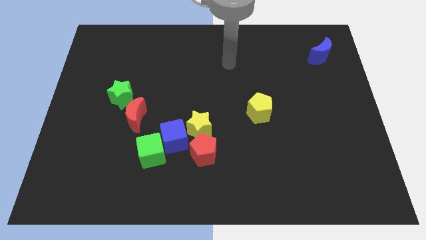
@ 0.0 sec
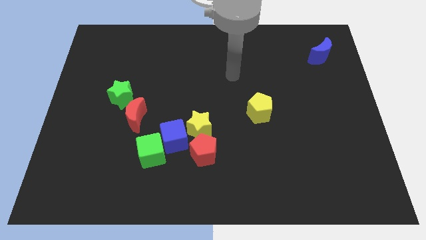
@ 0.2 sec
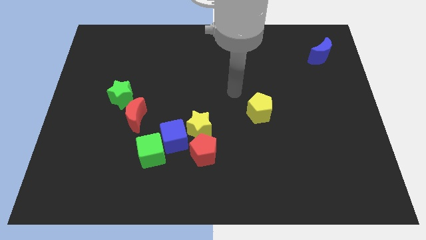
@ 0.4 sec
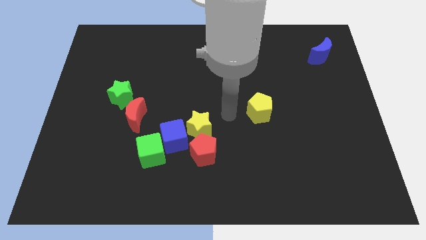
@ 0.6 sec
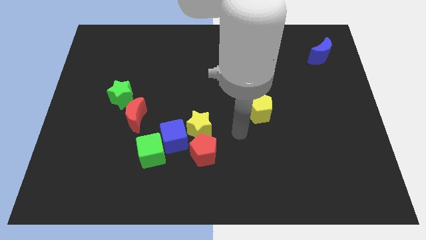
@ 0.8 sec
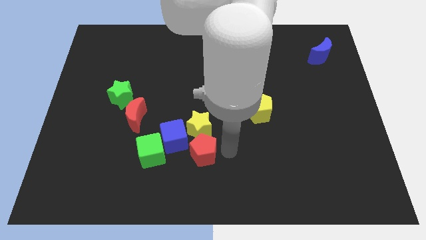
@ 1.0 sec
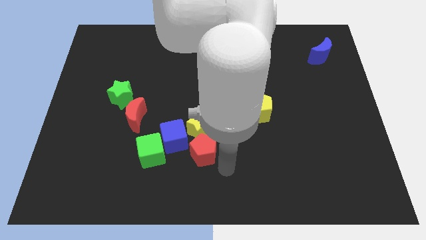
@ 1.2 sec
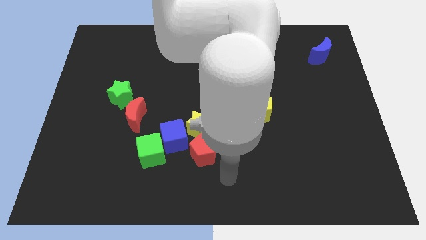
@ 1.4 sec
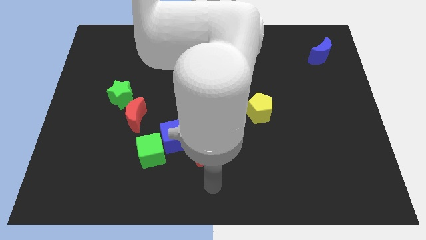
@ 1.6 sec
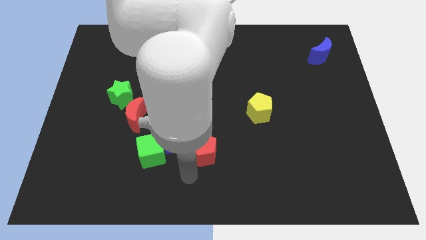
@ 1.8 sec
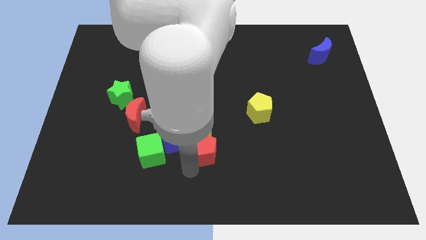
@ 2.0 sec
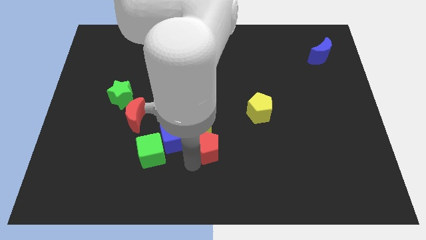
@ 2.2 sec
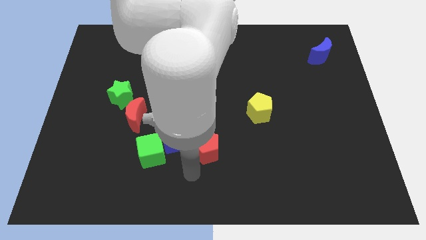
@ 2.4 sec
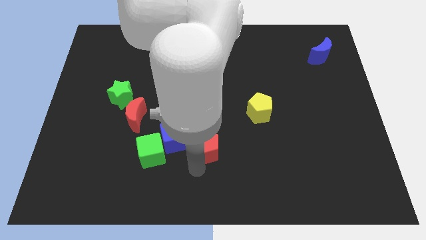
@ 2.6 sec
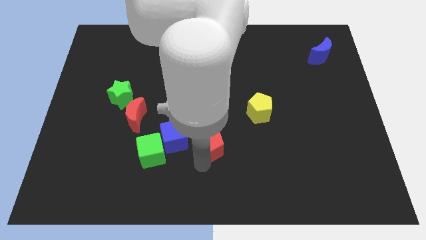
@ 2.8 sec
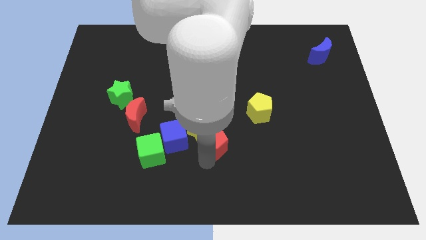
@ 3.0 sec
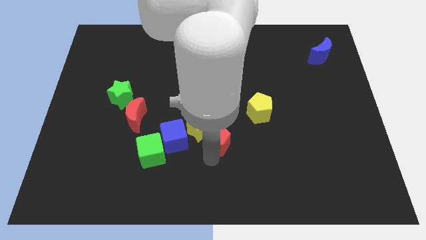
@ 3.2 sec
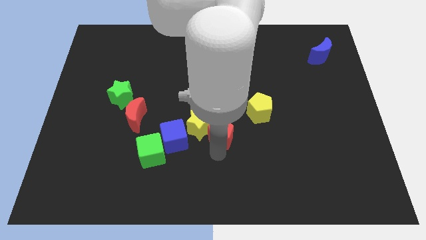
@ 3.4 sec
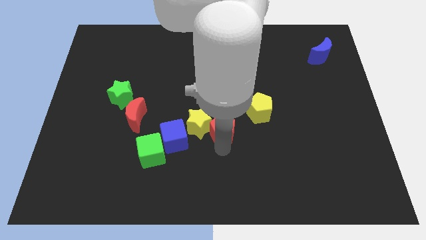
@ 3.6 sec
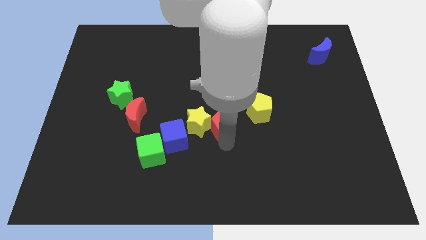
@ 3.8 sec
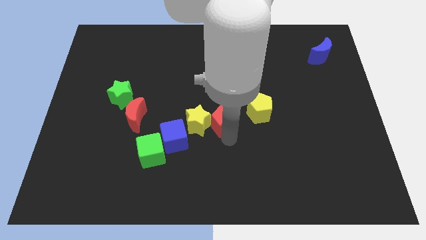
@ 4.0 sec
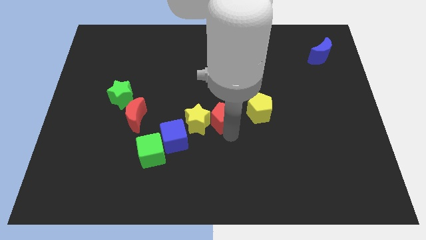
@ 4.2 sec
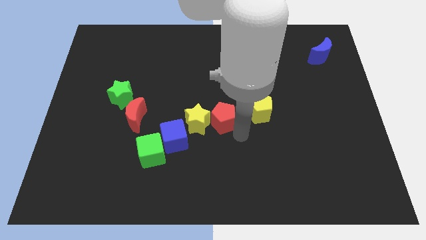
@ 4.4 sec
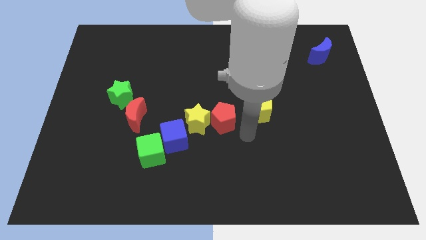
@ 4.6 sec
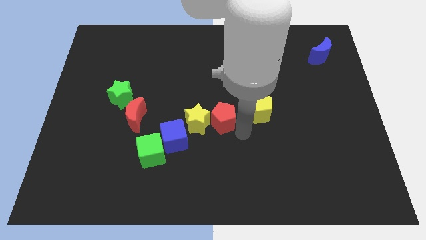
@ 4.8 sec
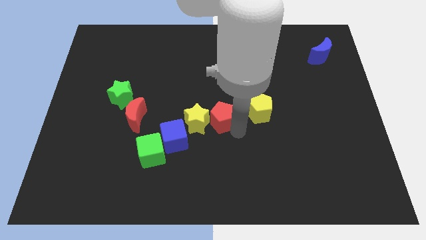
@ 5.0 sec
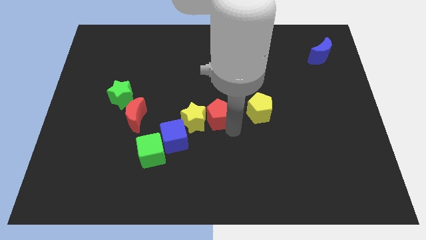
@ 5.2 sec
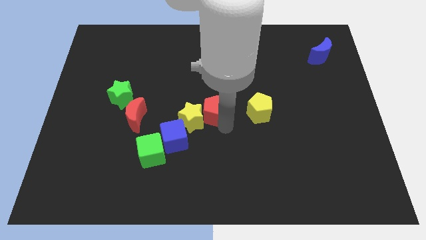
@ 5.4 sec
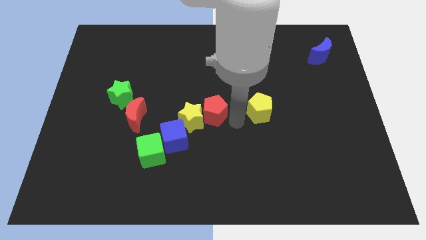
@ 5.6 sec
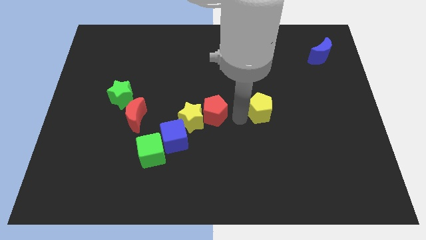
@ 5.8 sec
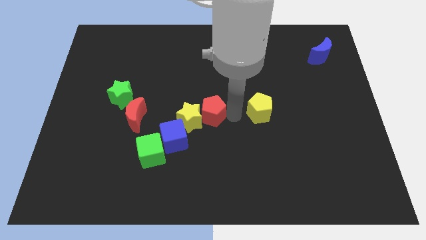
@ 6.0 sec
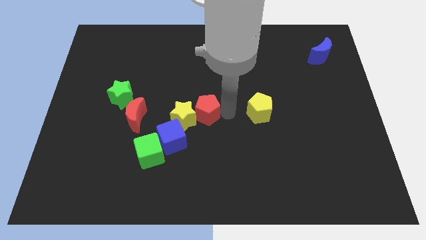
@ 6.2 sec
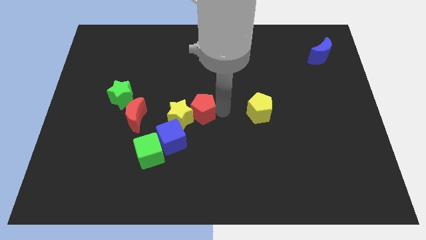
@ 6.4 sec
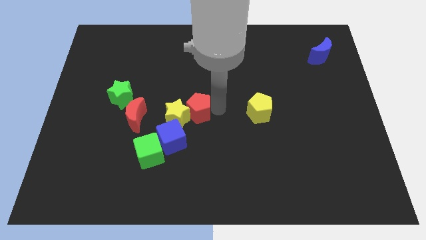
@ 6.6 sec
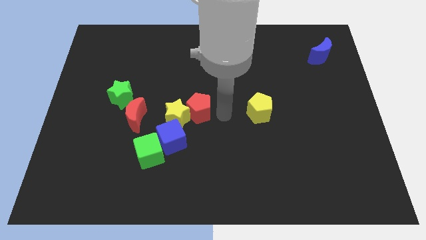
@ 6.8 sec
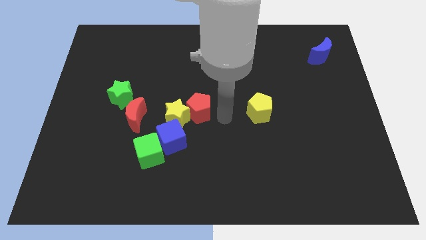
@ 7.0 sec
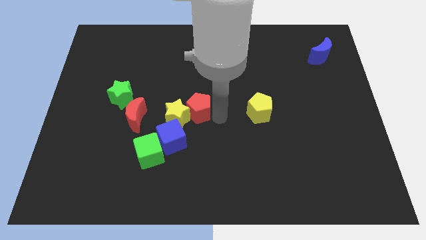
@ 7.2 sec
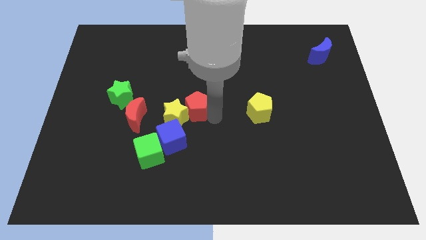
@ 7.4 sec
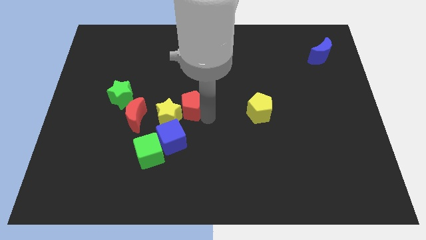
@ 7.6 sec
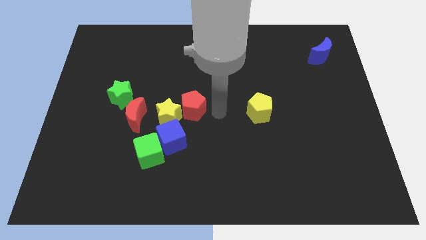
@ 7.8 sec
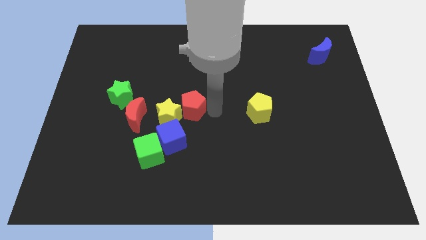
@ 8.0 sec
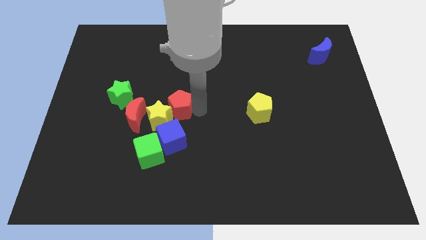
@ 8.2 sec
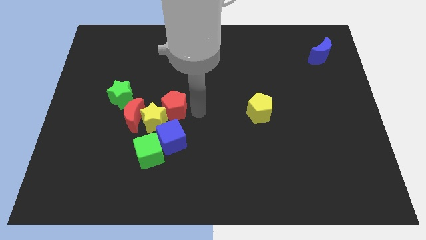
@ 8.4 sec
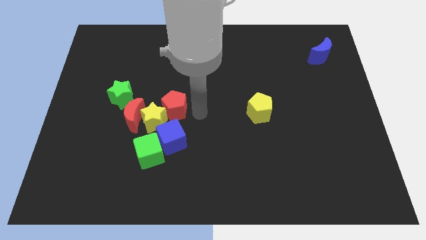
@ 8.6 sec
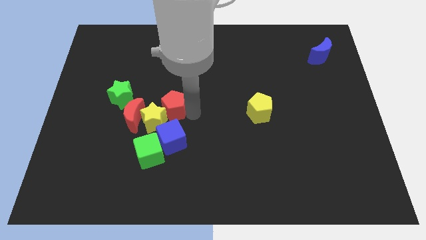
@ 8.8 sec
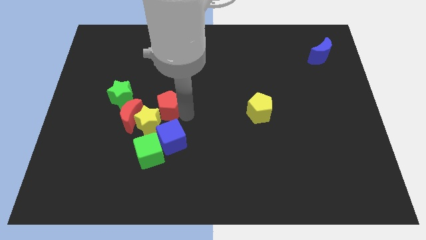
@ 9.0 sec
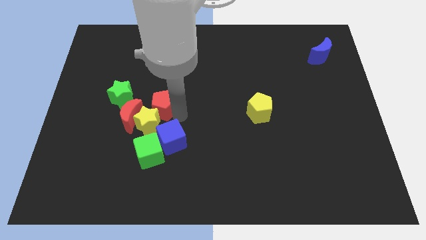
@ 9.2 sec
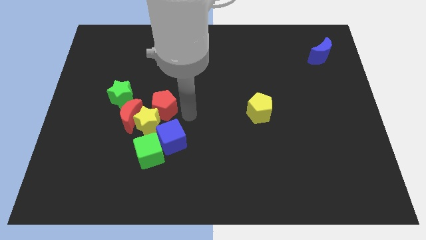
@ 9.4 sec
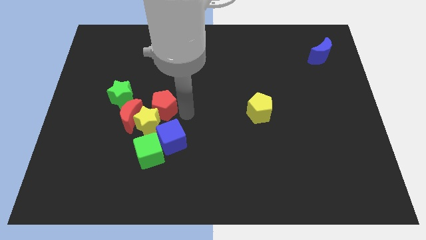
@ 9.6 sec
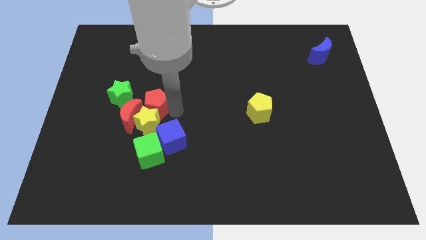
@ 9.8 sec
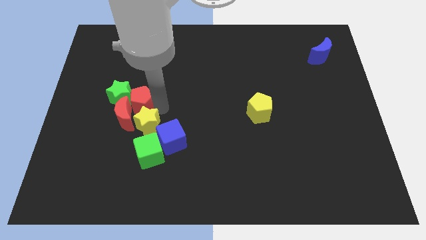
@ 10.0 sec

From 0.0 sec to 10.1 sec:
put the red pentagon towards the green star

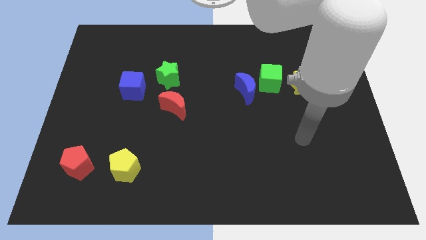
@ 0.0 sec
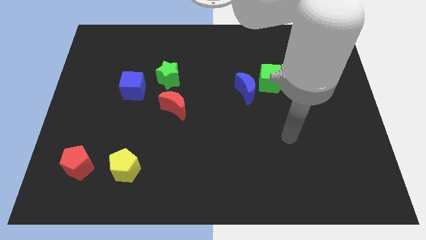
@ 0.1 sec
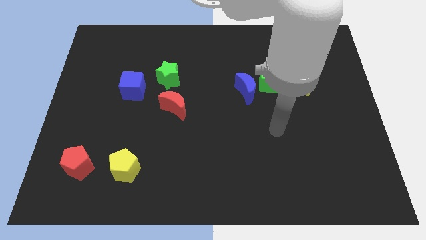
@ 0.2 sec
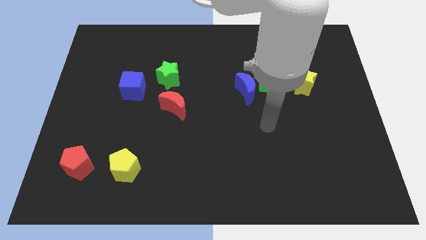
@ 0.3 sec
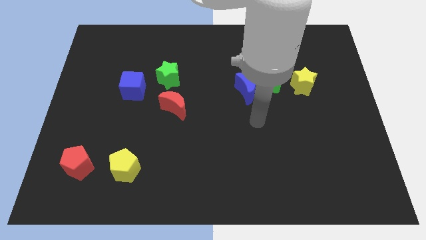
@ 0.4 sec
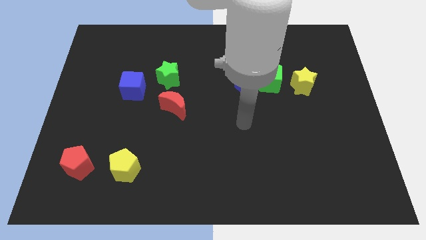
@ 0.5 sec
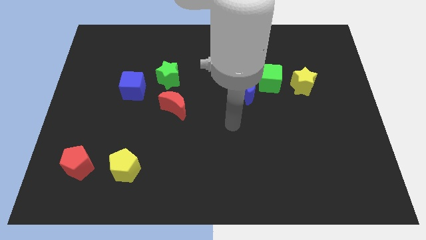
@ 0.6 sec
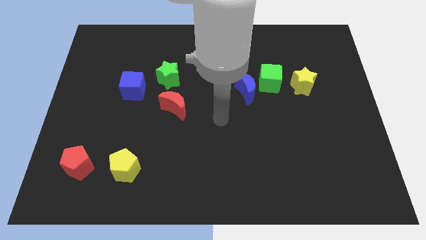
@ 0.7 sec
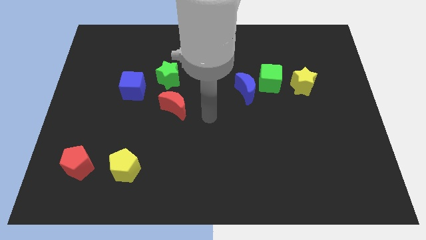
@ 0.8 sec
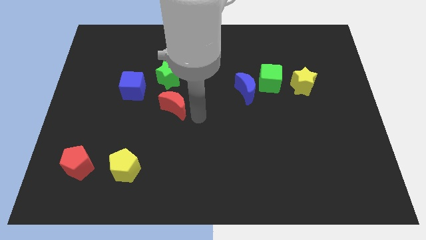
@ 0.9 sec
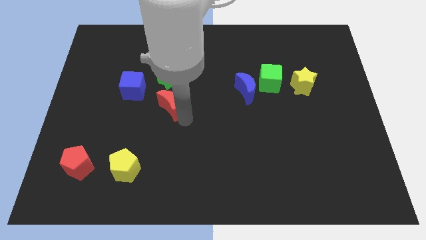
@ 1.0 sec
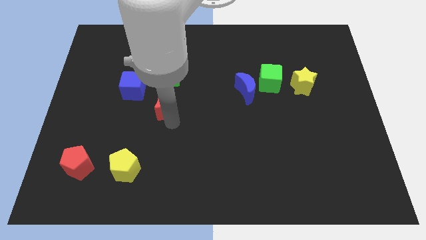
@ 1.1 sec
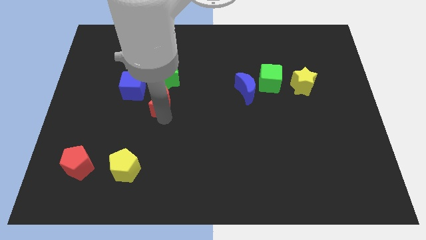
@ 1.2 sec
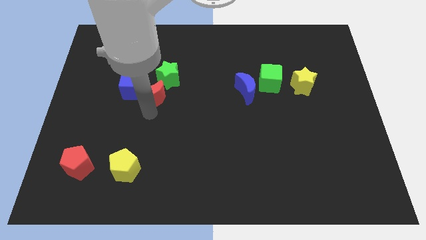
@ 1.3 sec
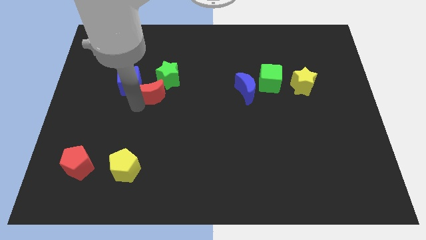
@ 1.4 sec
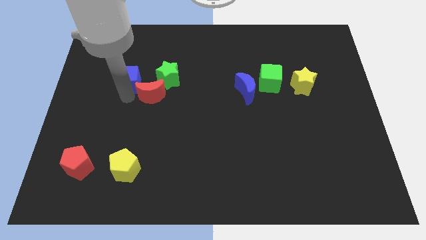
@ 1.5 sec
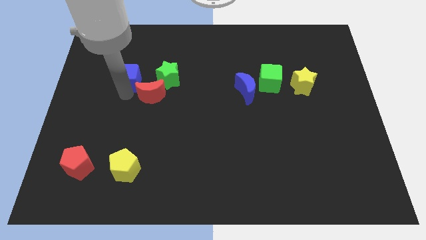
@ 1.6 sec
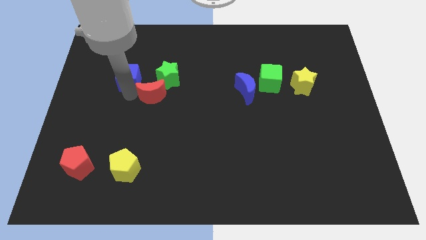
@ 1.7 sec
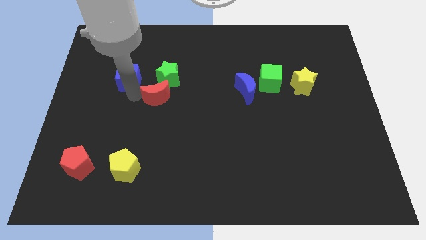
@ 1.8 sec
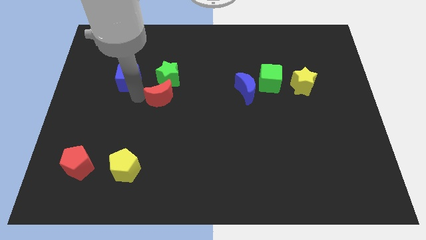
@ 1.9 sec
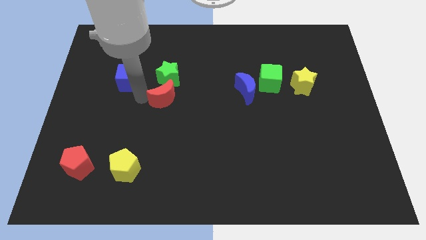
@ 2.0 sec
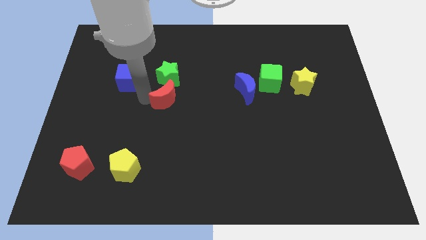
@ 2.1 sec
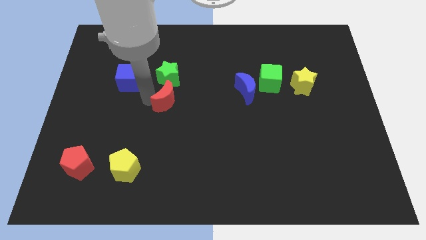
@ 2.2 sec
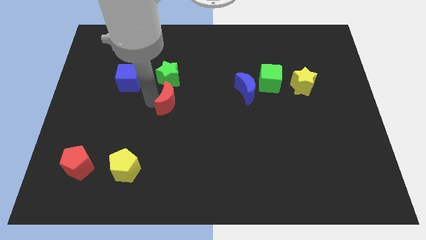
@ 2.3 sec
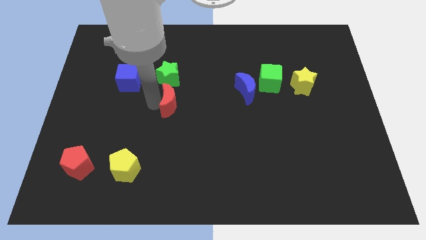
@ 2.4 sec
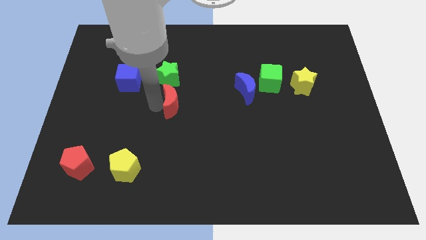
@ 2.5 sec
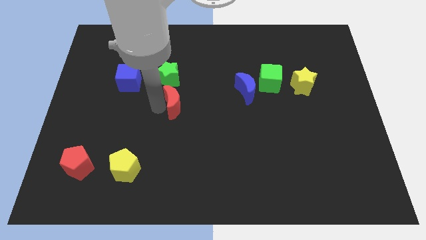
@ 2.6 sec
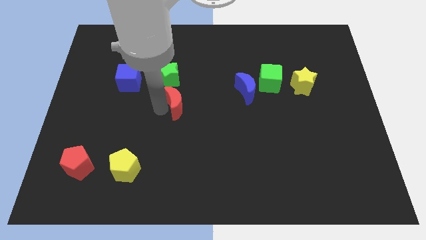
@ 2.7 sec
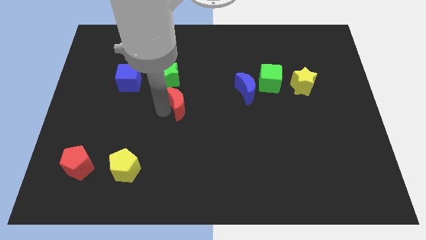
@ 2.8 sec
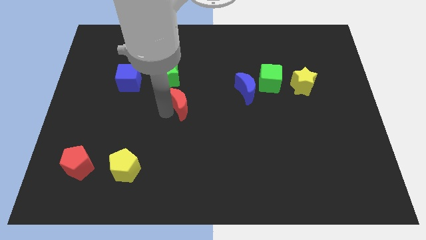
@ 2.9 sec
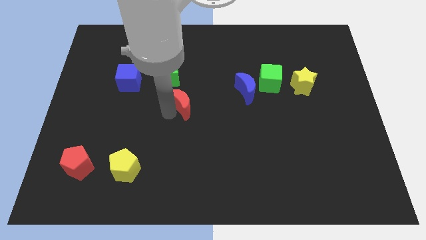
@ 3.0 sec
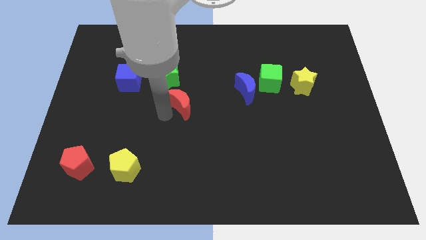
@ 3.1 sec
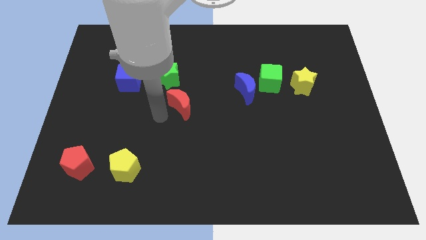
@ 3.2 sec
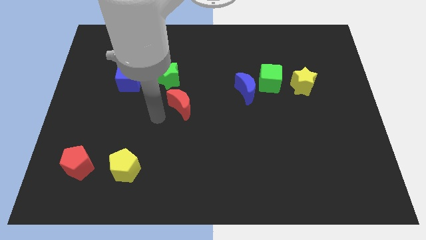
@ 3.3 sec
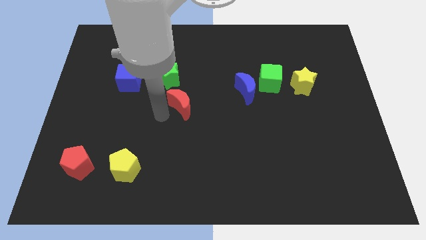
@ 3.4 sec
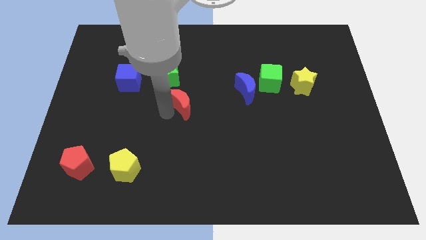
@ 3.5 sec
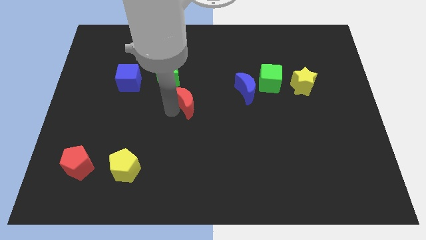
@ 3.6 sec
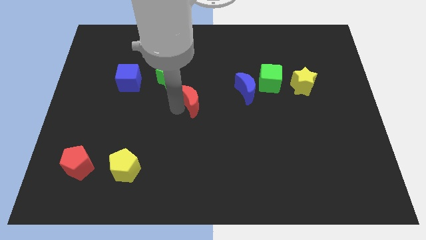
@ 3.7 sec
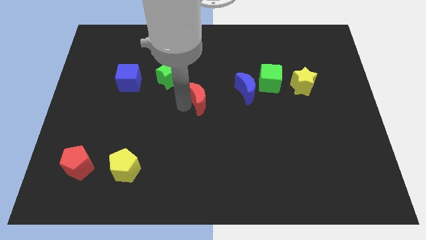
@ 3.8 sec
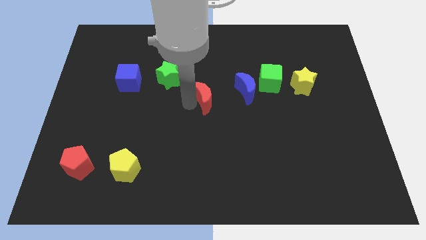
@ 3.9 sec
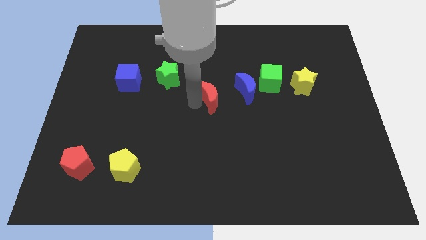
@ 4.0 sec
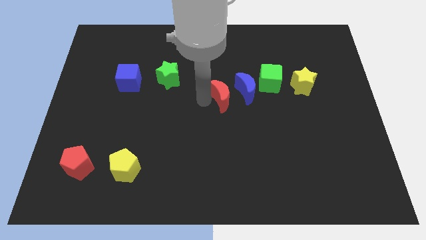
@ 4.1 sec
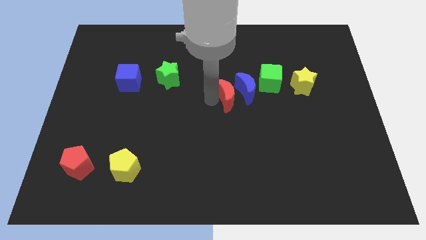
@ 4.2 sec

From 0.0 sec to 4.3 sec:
put the red moon next to the blue moon
